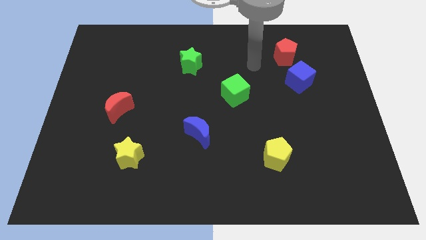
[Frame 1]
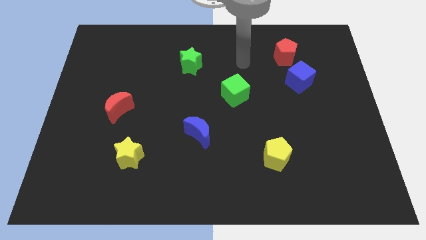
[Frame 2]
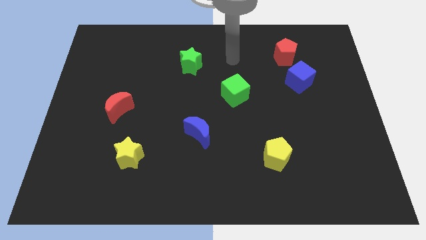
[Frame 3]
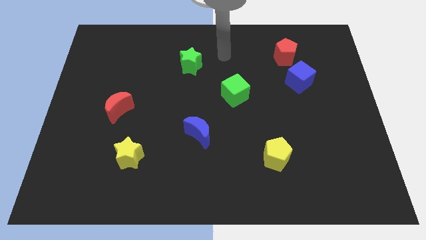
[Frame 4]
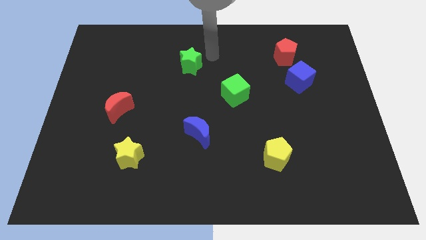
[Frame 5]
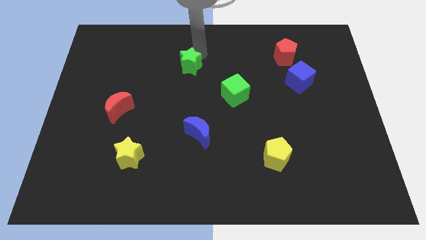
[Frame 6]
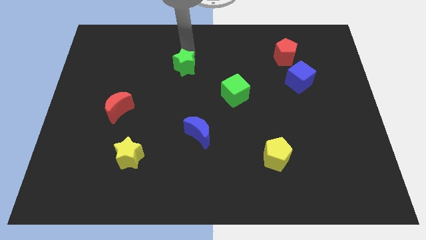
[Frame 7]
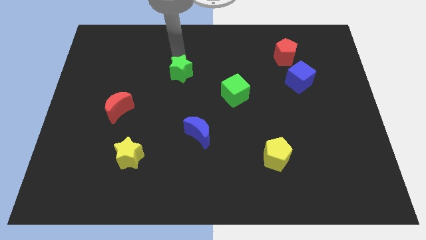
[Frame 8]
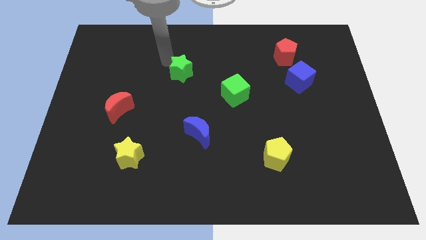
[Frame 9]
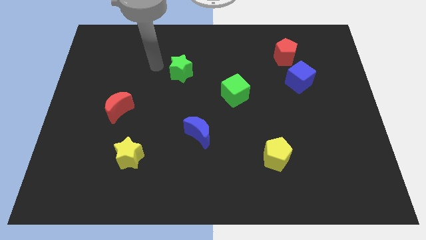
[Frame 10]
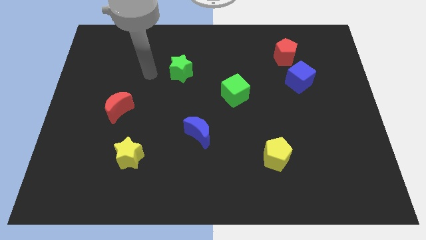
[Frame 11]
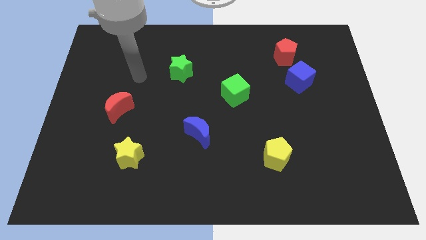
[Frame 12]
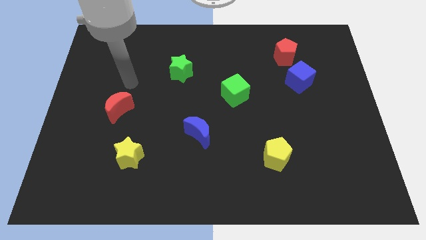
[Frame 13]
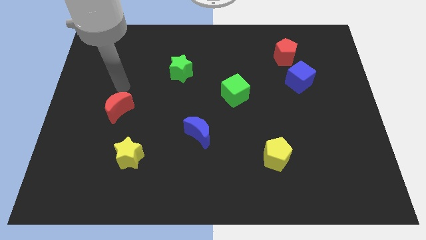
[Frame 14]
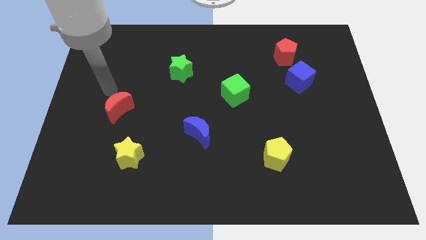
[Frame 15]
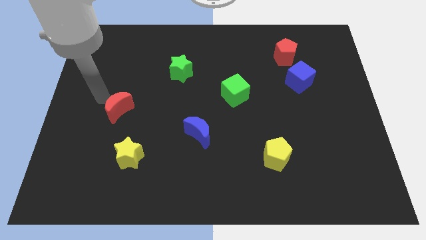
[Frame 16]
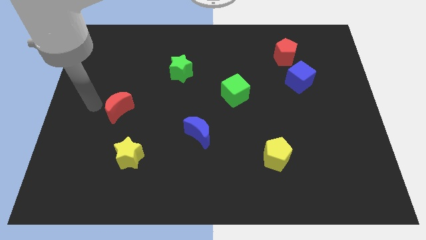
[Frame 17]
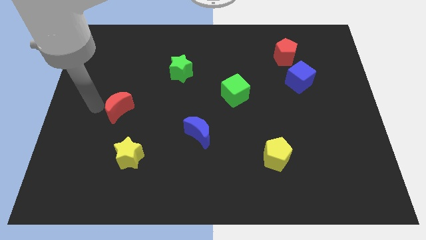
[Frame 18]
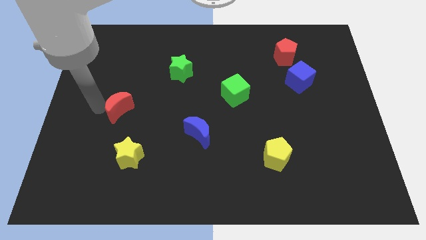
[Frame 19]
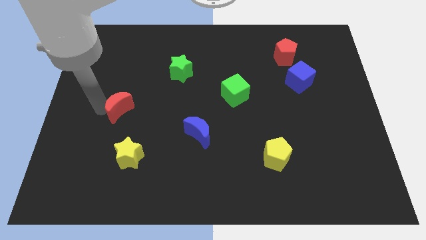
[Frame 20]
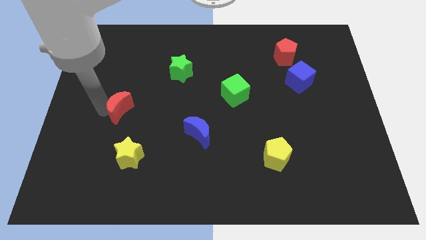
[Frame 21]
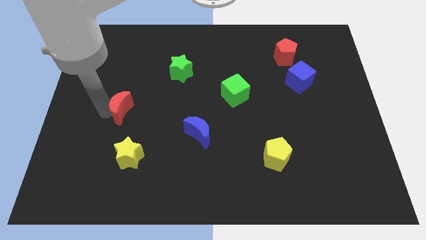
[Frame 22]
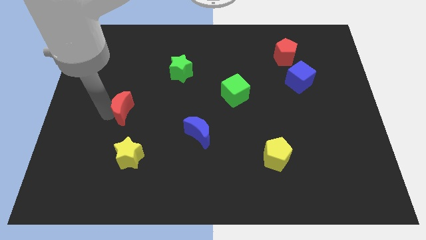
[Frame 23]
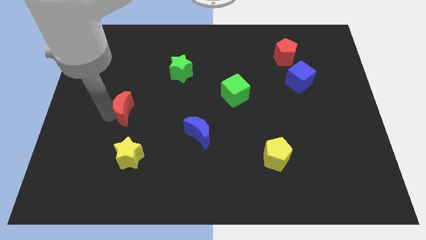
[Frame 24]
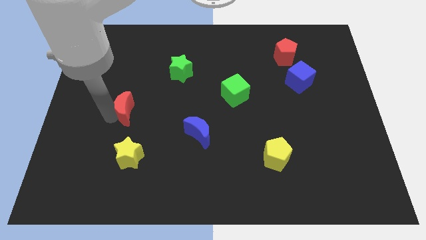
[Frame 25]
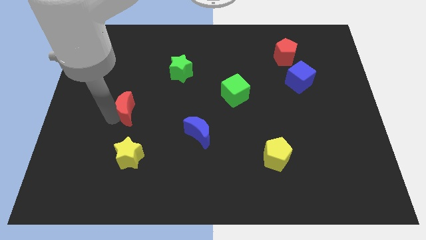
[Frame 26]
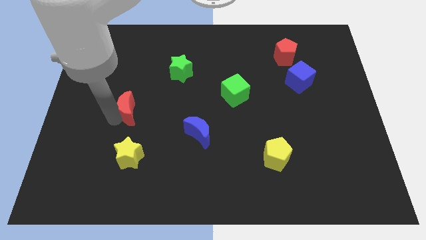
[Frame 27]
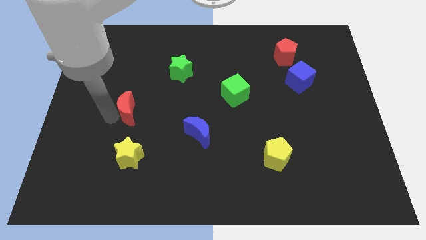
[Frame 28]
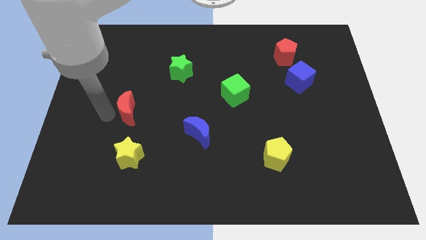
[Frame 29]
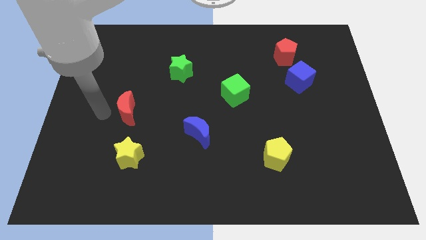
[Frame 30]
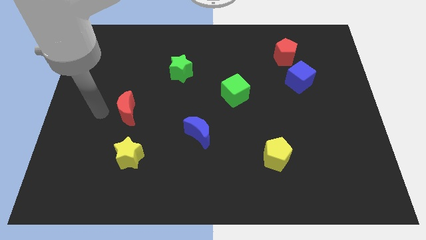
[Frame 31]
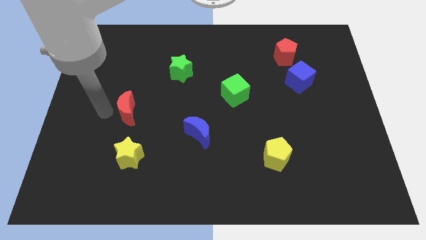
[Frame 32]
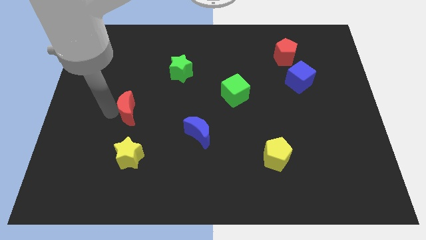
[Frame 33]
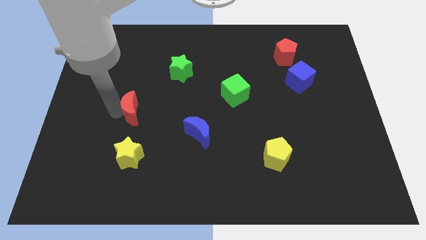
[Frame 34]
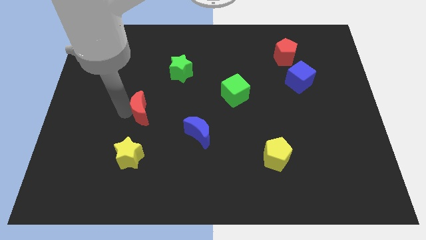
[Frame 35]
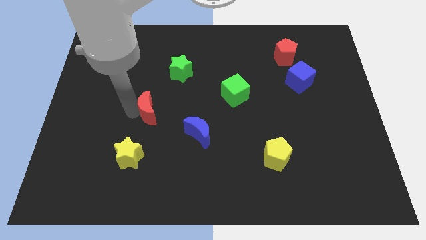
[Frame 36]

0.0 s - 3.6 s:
move the red moon right a little bit

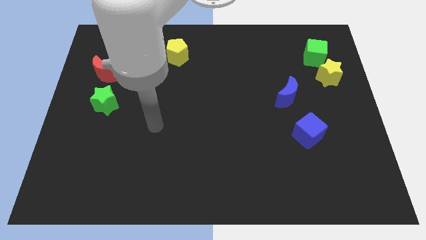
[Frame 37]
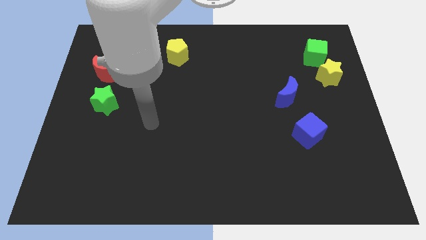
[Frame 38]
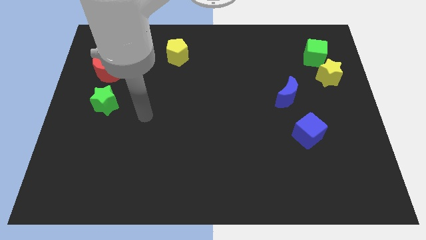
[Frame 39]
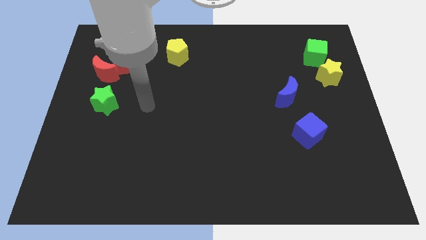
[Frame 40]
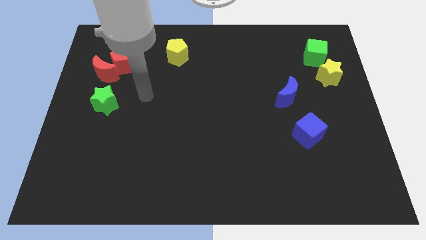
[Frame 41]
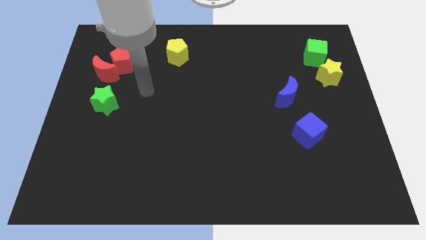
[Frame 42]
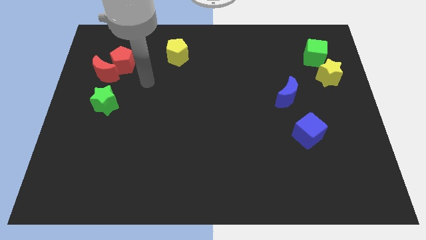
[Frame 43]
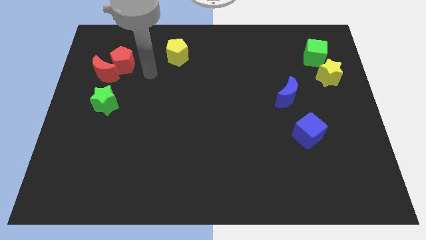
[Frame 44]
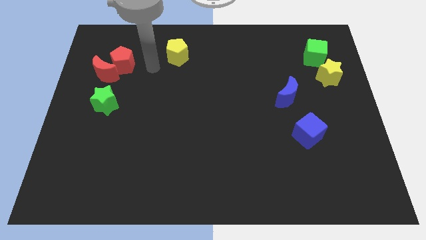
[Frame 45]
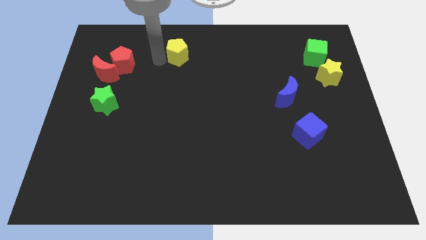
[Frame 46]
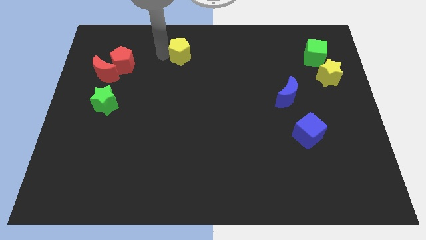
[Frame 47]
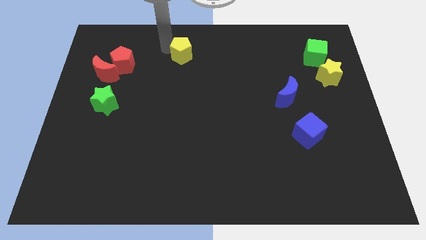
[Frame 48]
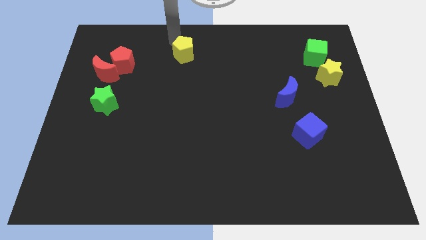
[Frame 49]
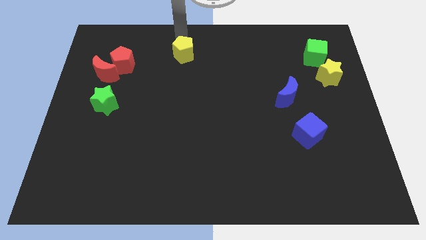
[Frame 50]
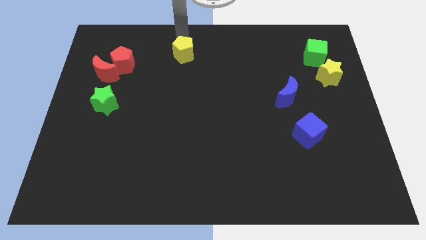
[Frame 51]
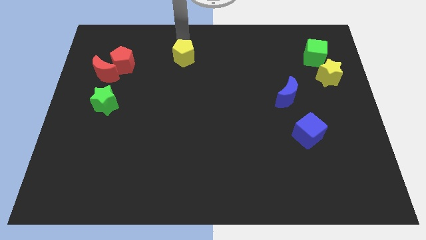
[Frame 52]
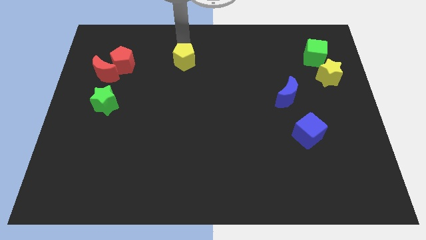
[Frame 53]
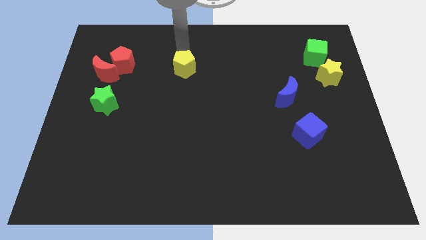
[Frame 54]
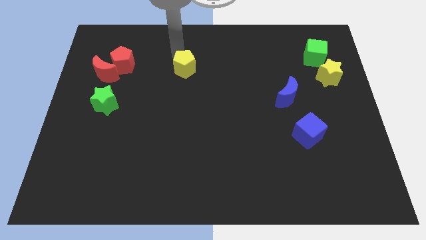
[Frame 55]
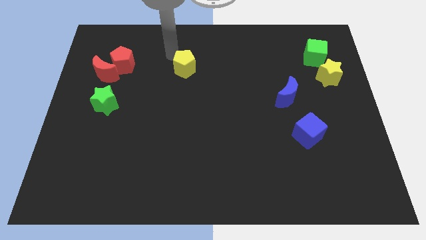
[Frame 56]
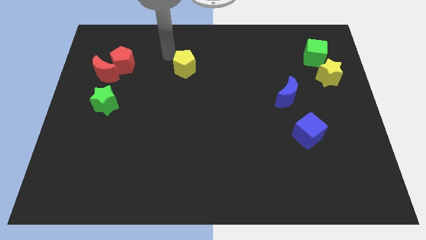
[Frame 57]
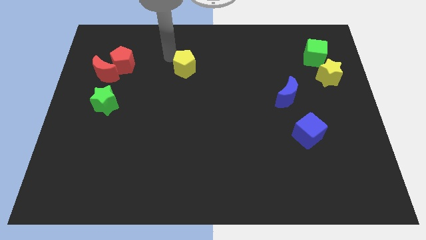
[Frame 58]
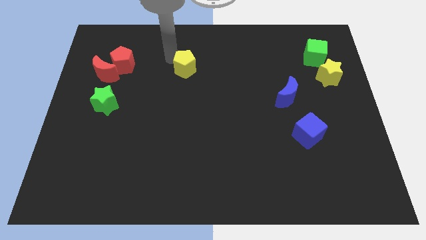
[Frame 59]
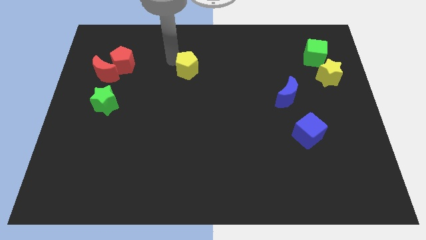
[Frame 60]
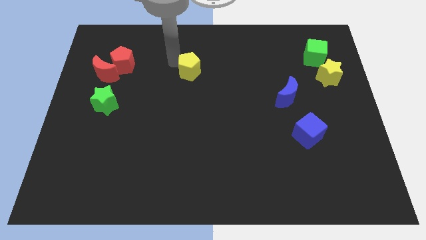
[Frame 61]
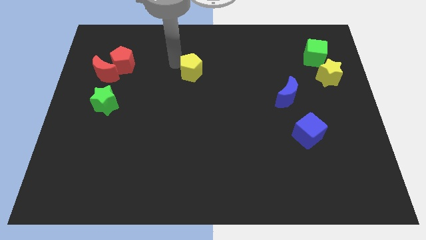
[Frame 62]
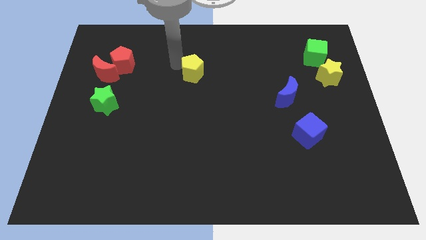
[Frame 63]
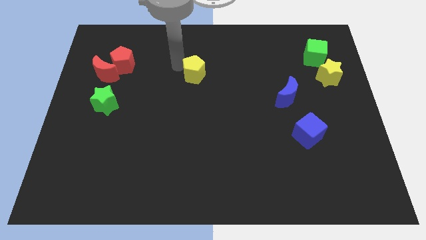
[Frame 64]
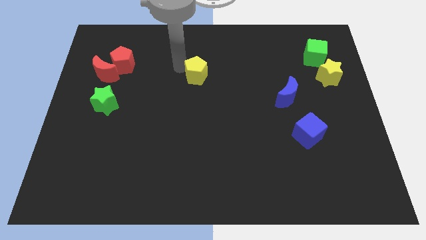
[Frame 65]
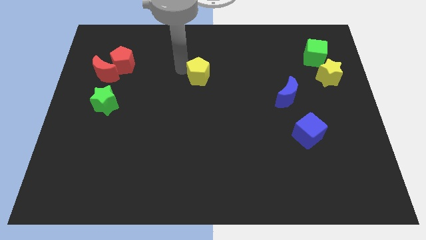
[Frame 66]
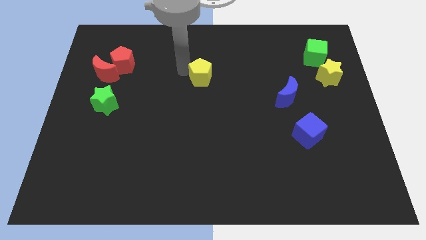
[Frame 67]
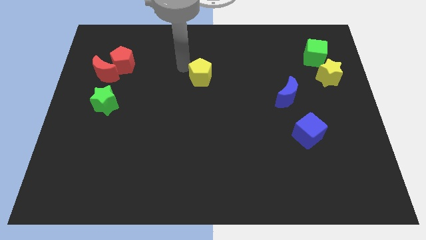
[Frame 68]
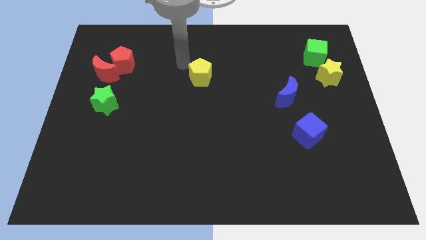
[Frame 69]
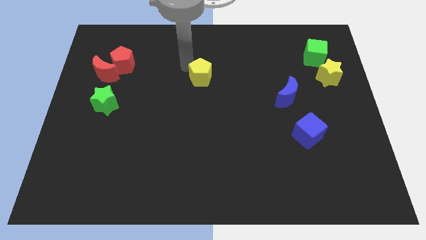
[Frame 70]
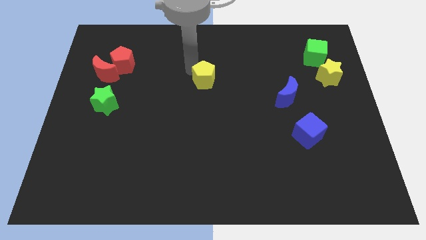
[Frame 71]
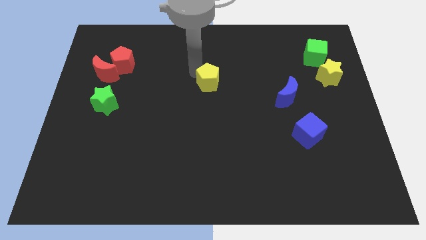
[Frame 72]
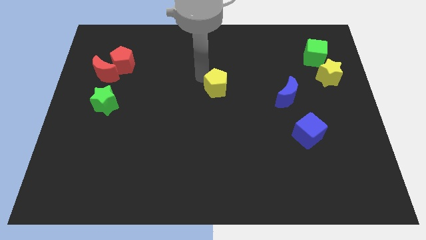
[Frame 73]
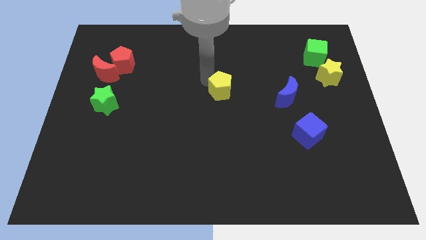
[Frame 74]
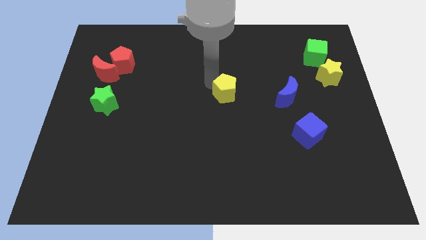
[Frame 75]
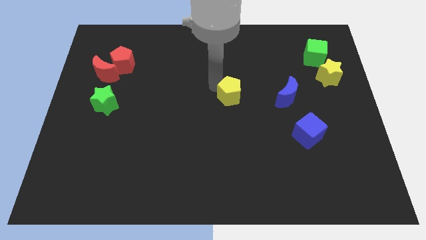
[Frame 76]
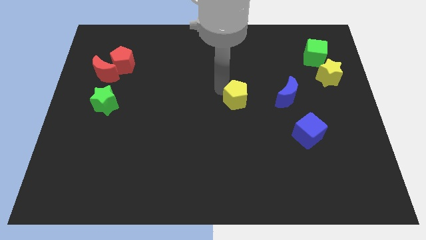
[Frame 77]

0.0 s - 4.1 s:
push the yellow pentagon down and right diagonally
